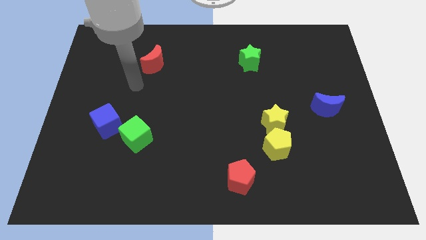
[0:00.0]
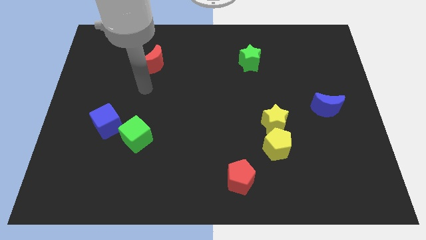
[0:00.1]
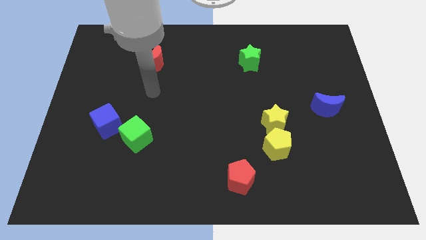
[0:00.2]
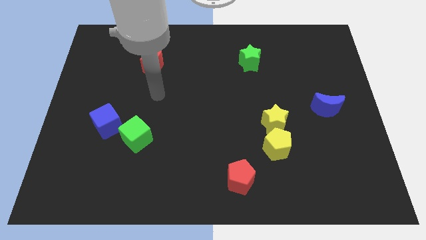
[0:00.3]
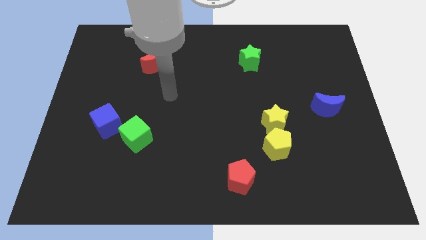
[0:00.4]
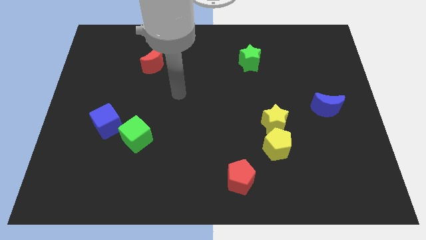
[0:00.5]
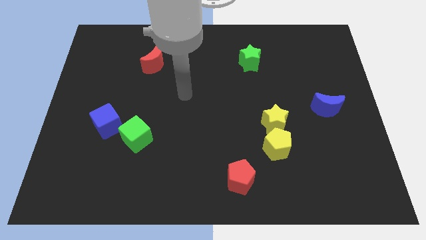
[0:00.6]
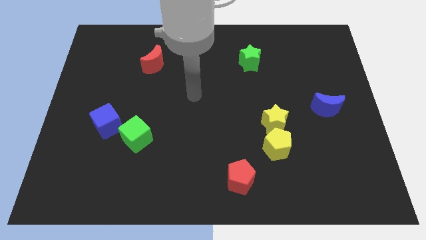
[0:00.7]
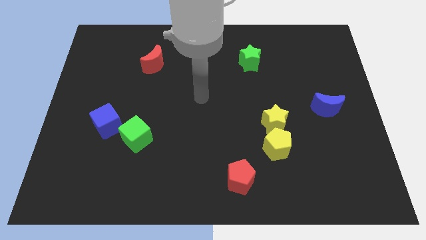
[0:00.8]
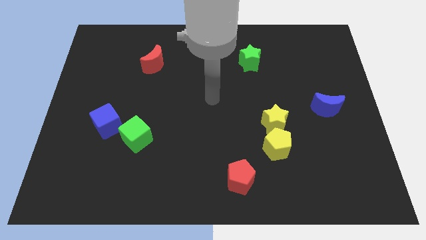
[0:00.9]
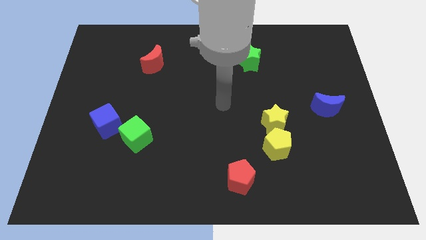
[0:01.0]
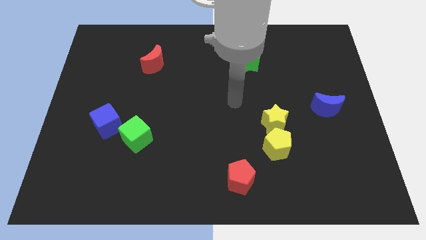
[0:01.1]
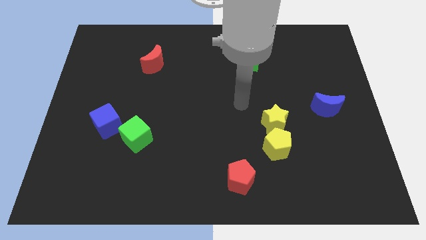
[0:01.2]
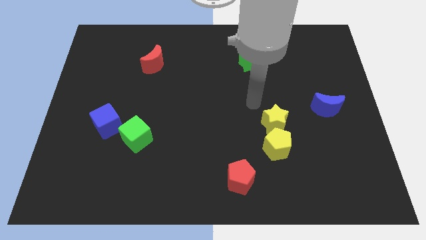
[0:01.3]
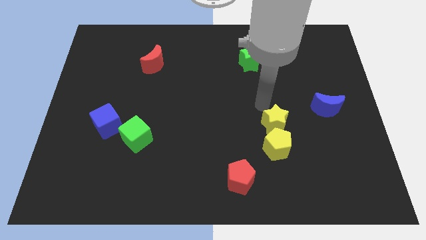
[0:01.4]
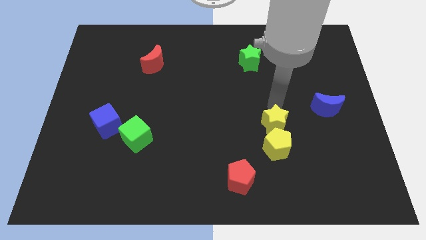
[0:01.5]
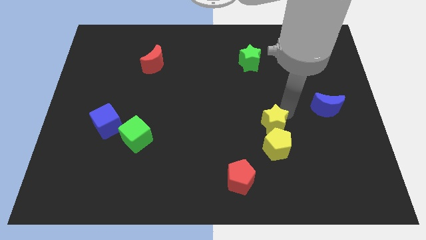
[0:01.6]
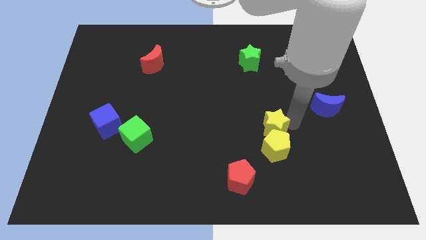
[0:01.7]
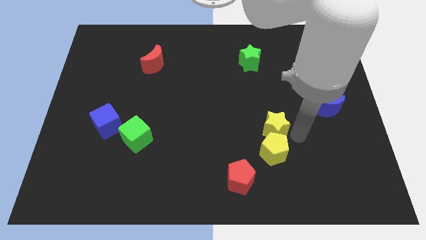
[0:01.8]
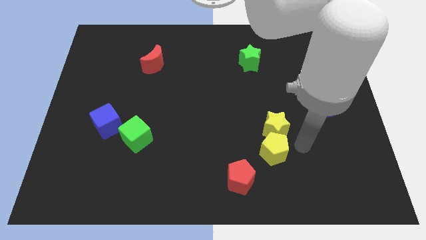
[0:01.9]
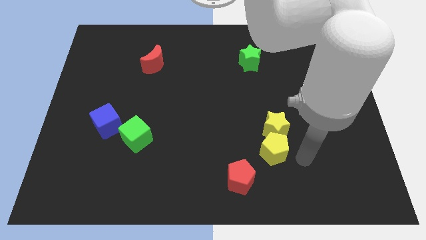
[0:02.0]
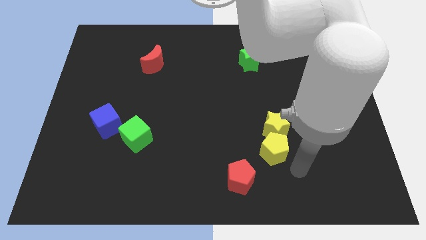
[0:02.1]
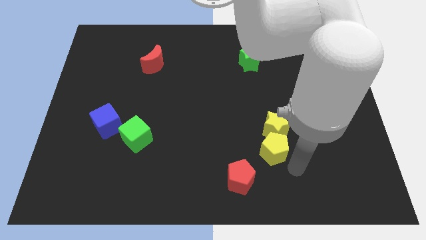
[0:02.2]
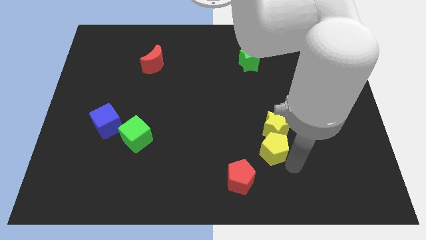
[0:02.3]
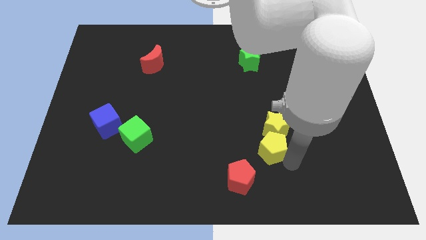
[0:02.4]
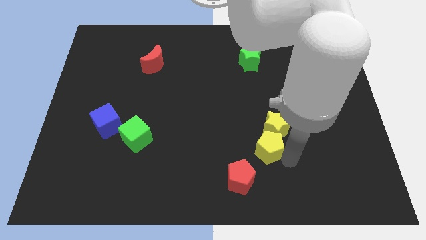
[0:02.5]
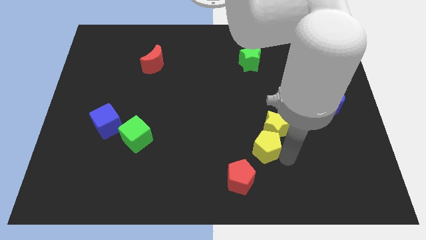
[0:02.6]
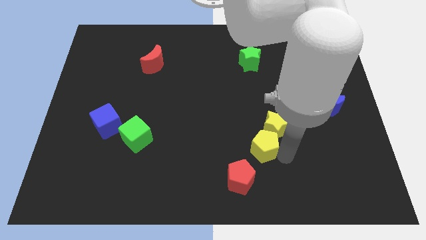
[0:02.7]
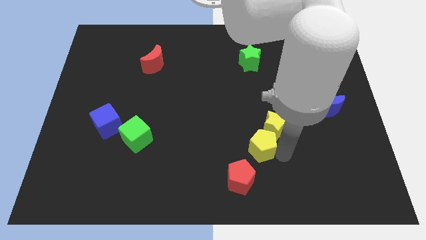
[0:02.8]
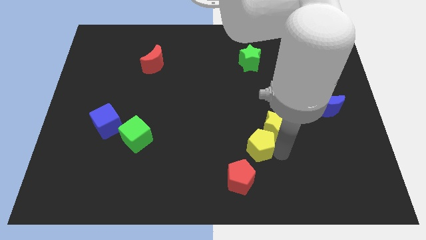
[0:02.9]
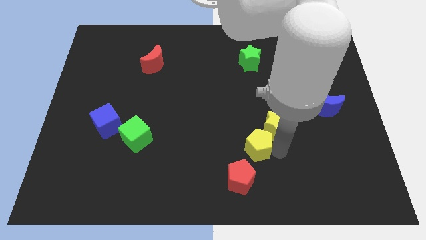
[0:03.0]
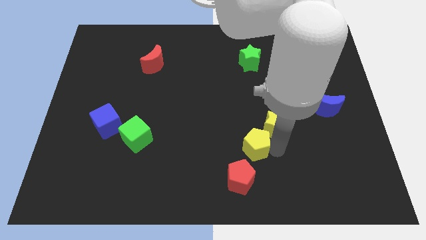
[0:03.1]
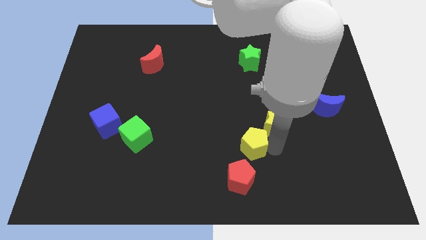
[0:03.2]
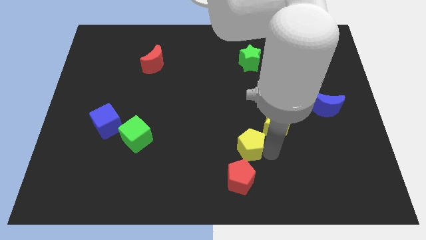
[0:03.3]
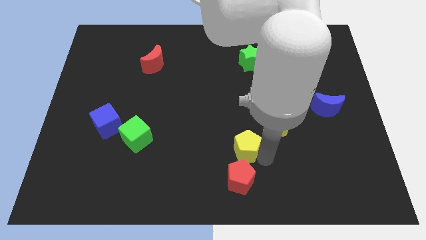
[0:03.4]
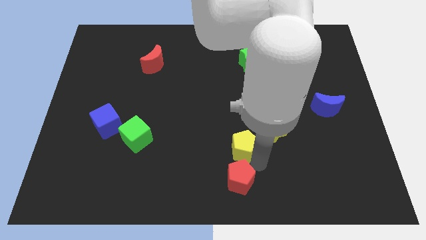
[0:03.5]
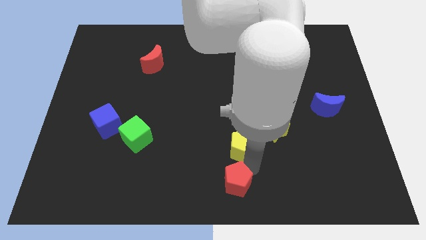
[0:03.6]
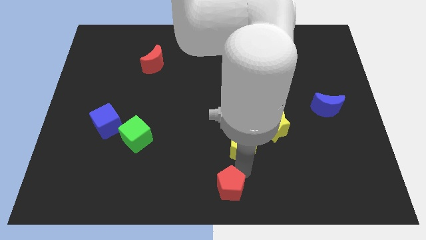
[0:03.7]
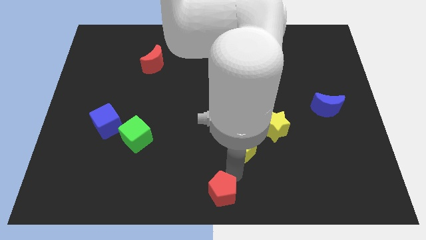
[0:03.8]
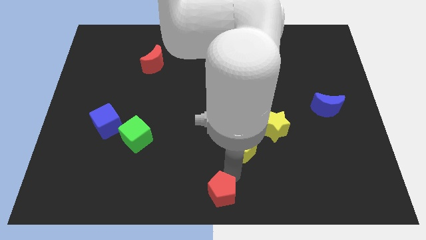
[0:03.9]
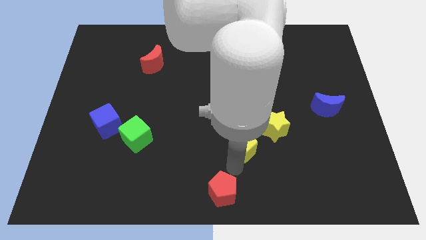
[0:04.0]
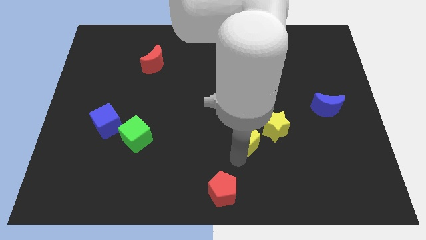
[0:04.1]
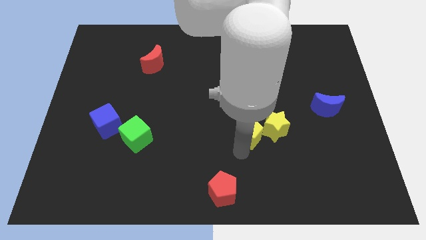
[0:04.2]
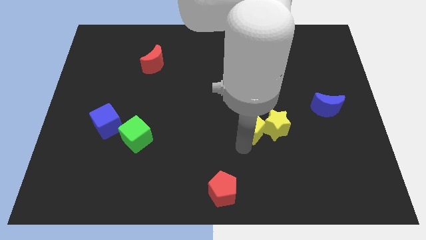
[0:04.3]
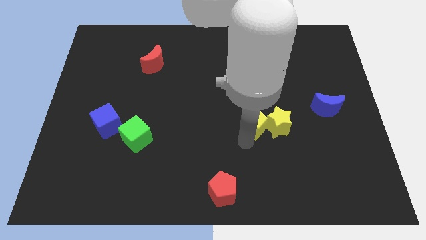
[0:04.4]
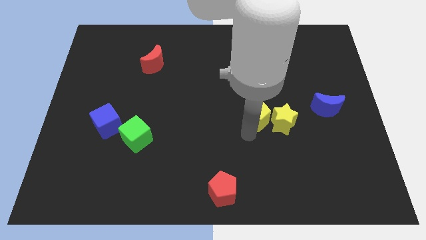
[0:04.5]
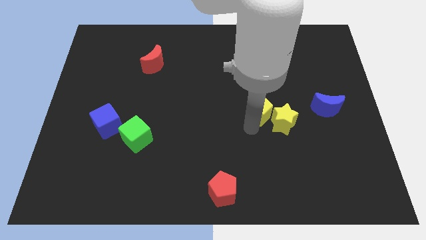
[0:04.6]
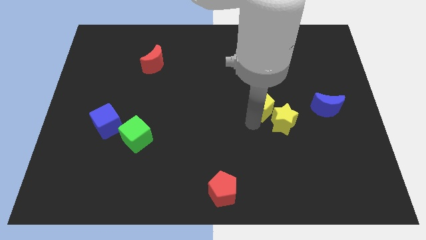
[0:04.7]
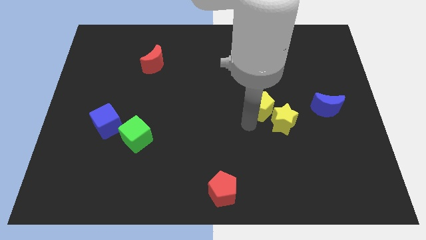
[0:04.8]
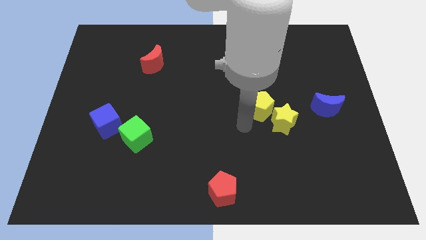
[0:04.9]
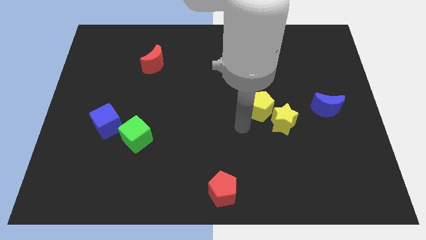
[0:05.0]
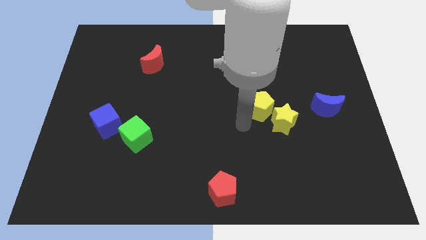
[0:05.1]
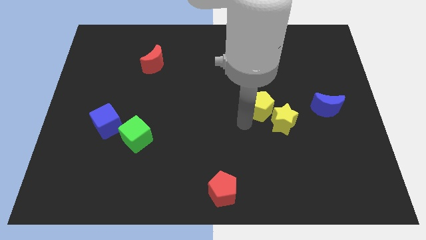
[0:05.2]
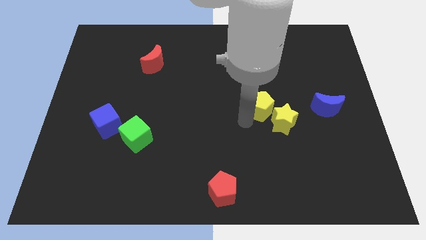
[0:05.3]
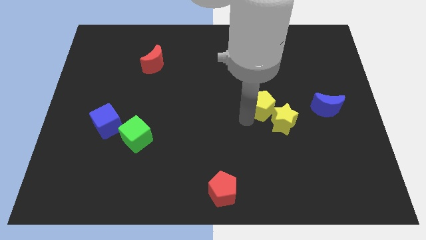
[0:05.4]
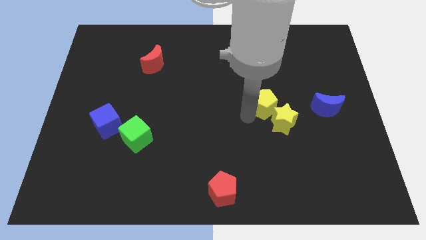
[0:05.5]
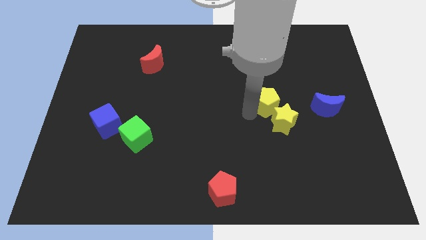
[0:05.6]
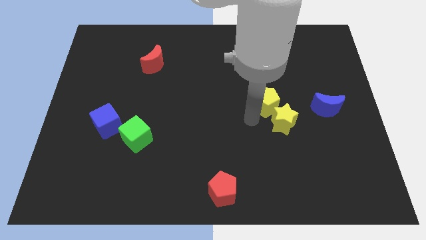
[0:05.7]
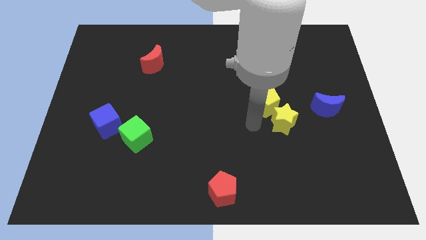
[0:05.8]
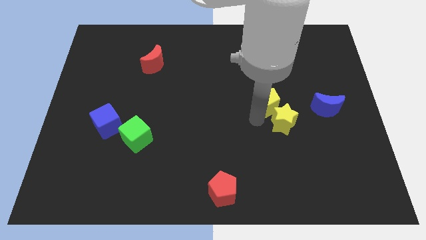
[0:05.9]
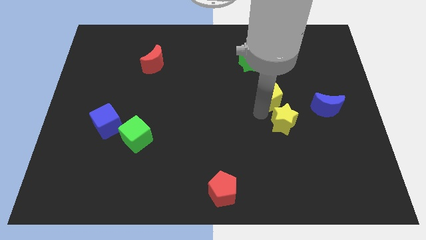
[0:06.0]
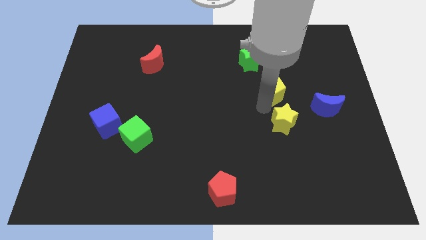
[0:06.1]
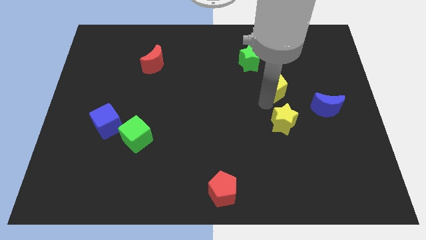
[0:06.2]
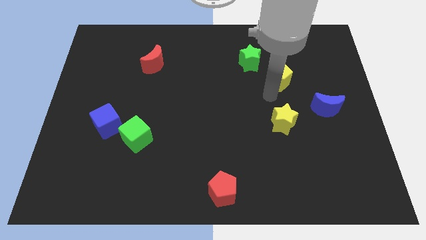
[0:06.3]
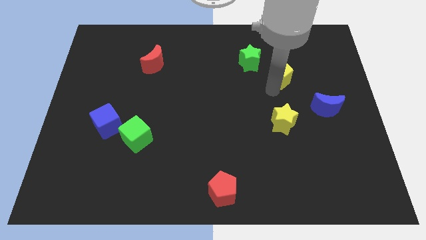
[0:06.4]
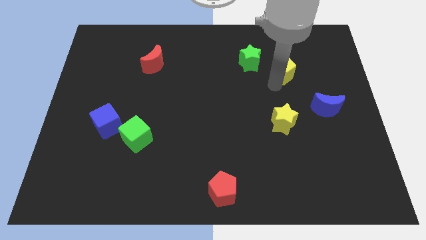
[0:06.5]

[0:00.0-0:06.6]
put the yellow pentagon to the right side of the green star

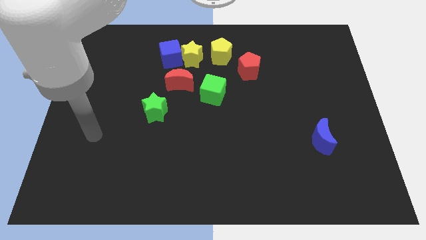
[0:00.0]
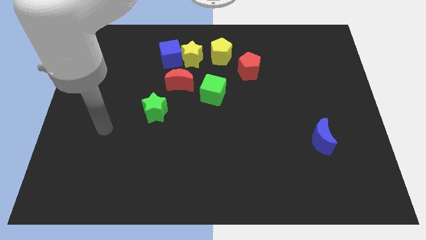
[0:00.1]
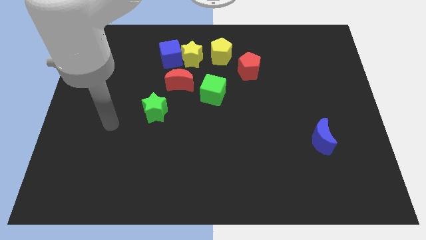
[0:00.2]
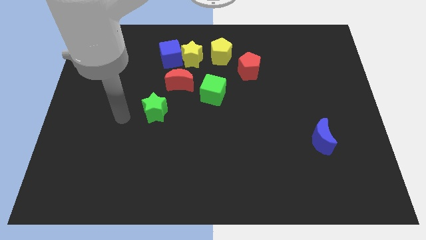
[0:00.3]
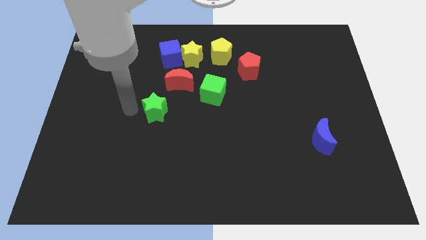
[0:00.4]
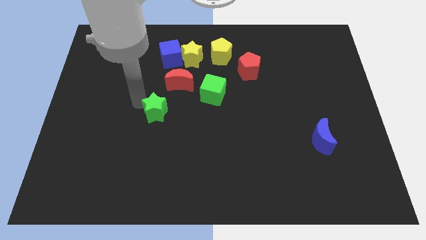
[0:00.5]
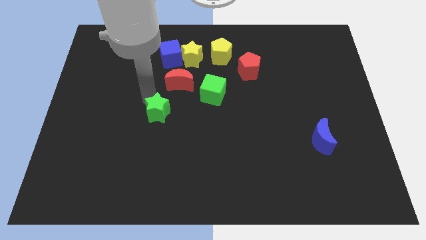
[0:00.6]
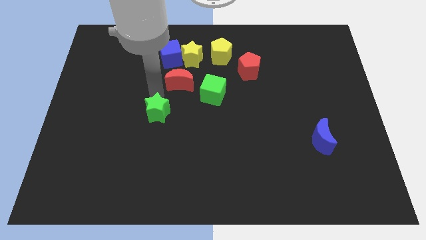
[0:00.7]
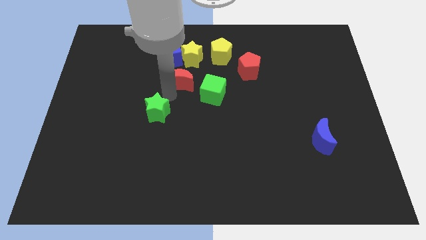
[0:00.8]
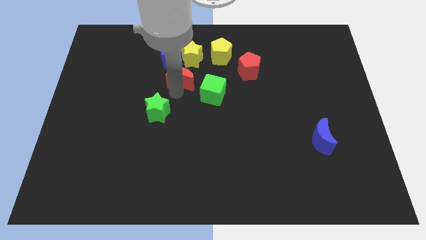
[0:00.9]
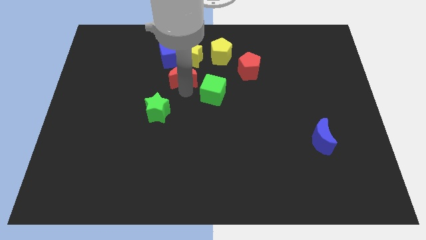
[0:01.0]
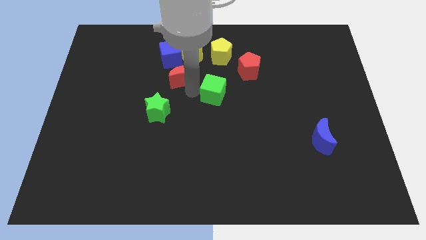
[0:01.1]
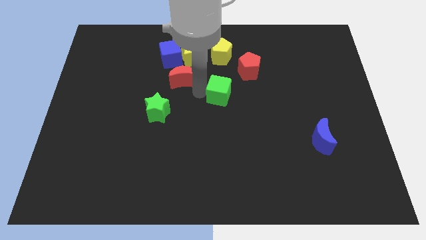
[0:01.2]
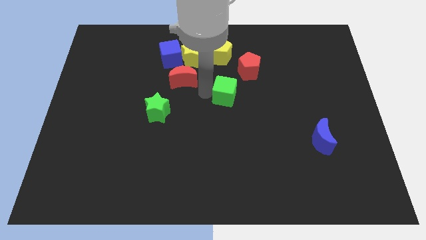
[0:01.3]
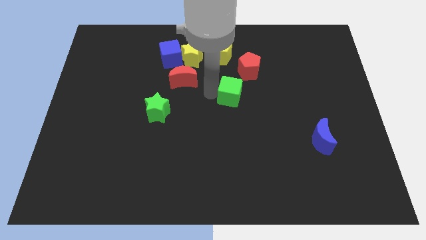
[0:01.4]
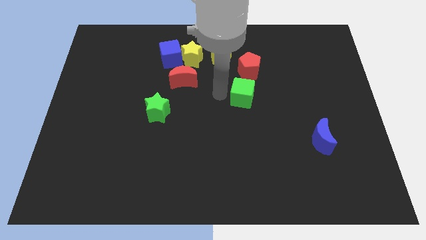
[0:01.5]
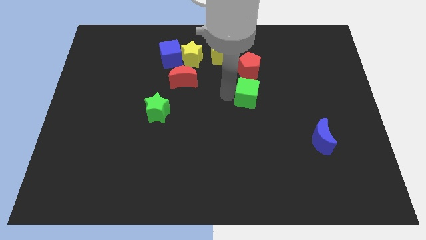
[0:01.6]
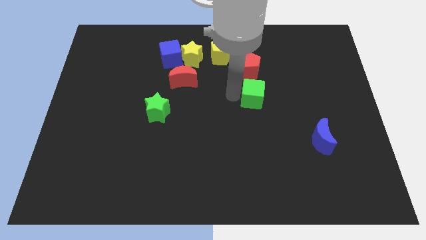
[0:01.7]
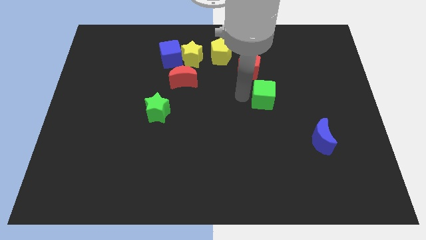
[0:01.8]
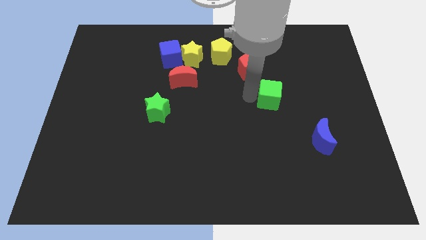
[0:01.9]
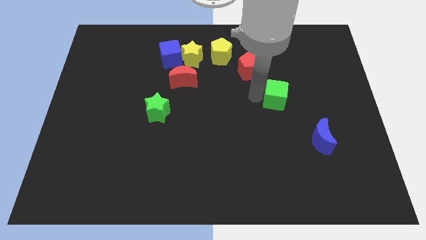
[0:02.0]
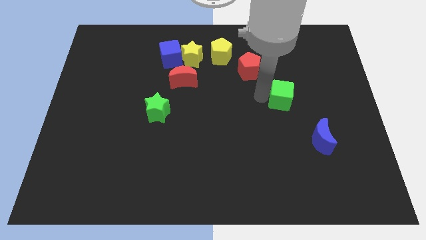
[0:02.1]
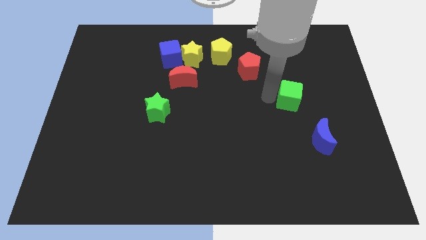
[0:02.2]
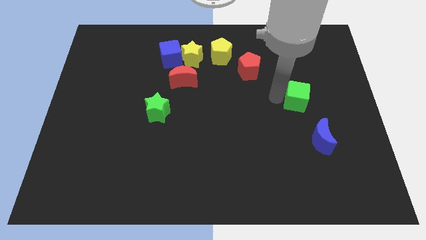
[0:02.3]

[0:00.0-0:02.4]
put the green cube to the top side of the blue moon
